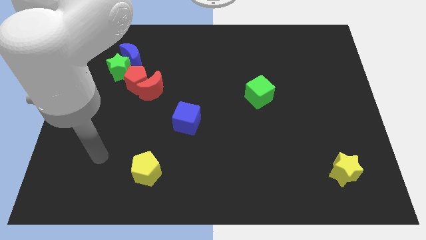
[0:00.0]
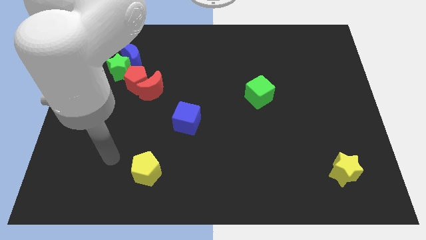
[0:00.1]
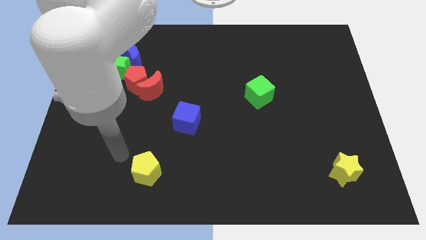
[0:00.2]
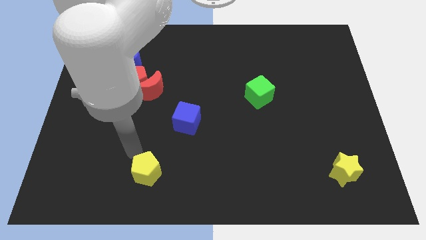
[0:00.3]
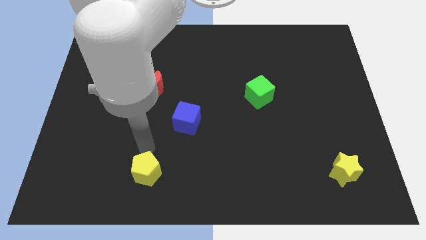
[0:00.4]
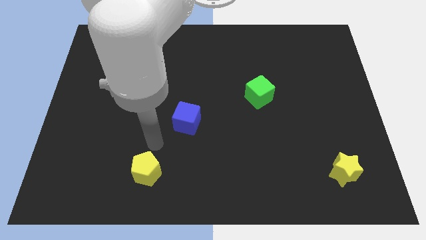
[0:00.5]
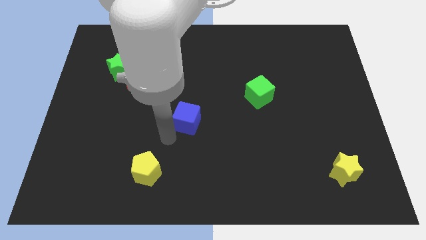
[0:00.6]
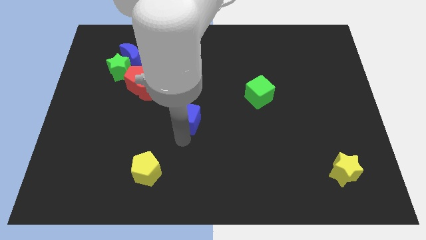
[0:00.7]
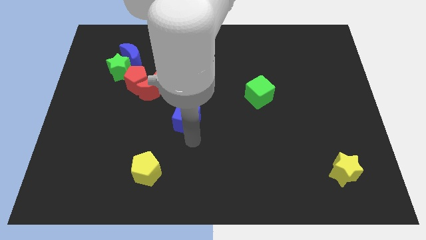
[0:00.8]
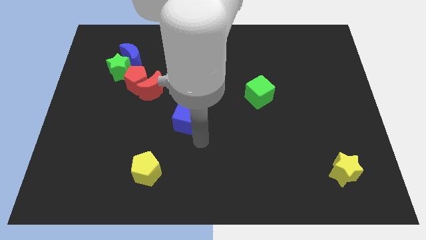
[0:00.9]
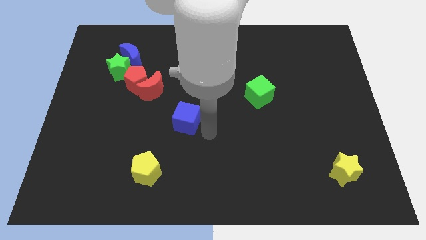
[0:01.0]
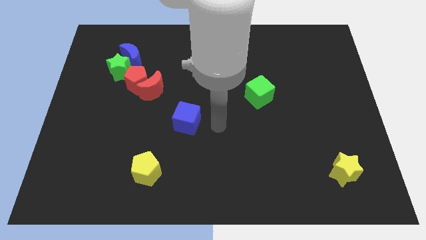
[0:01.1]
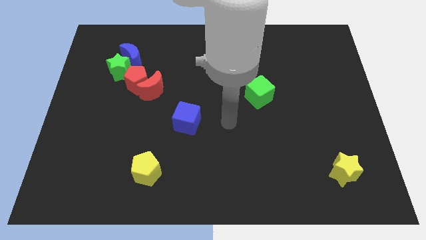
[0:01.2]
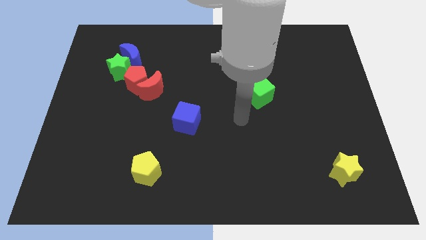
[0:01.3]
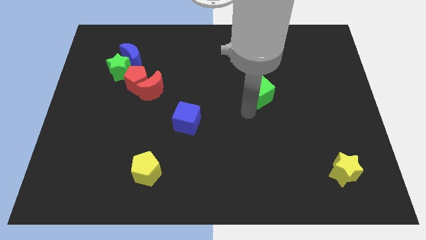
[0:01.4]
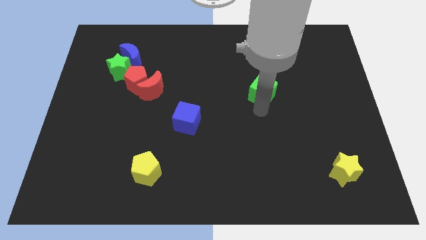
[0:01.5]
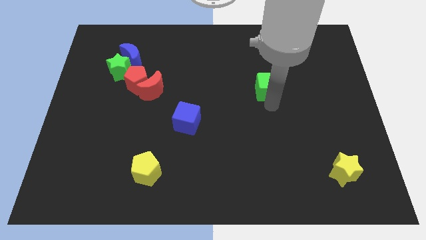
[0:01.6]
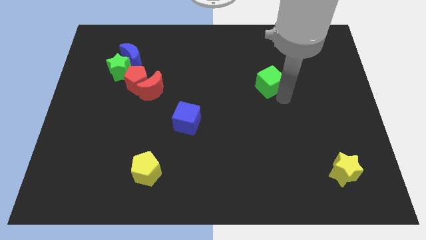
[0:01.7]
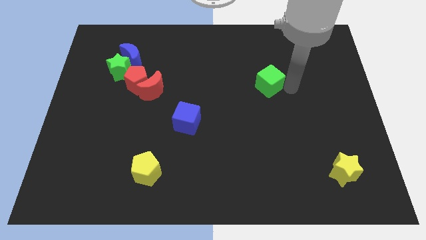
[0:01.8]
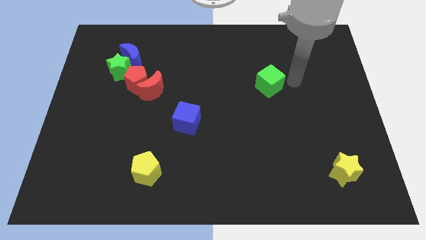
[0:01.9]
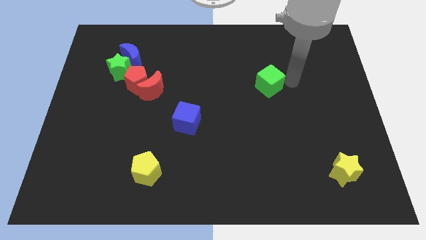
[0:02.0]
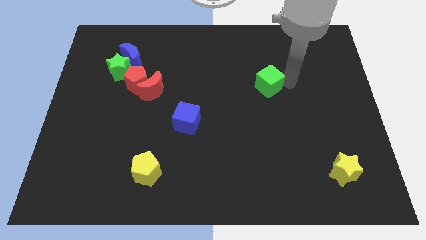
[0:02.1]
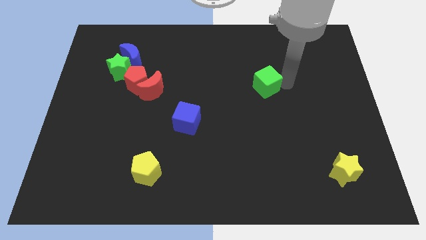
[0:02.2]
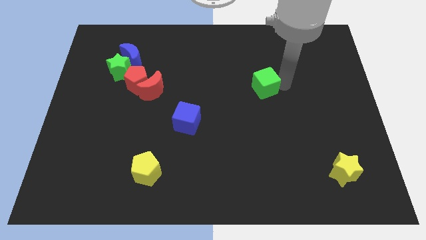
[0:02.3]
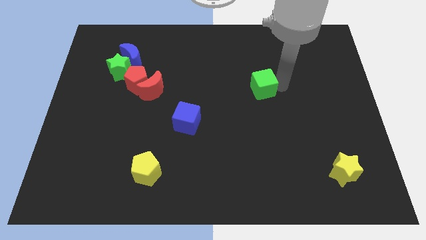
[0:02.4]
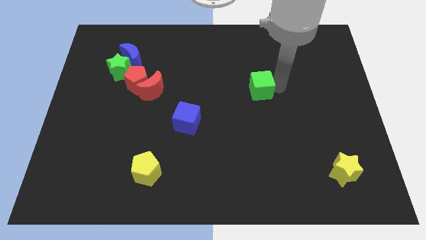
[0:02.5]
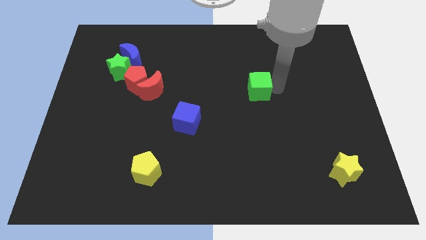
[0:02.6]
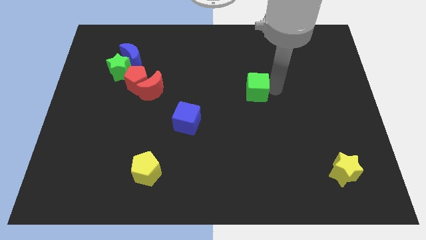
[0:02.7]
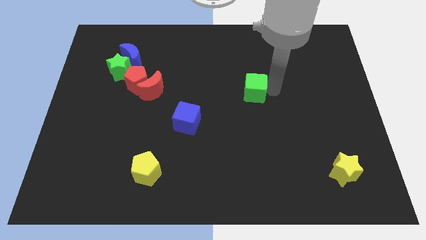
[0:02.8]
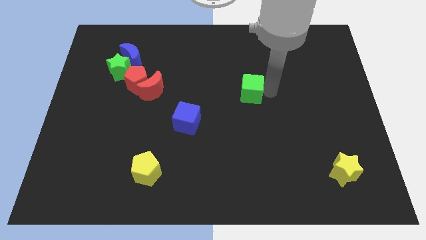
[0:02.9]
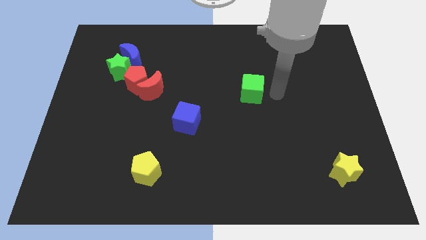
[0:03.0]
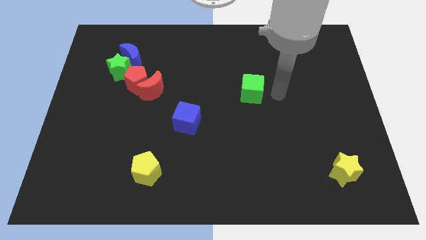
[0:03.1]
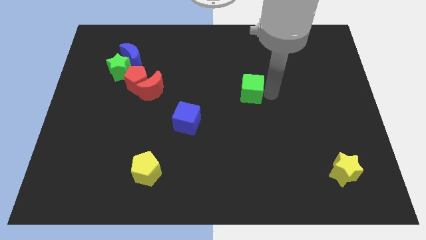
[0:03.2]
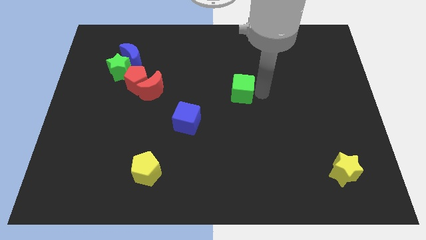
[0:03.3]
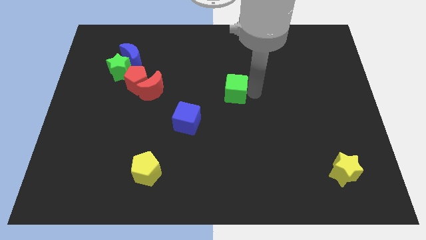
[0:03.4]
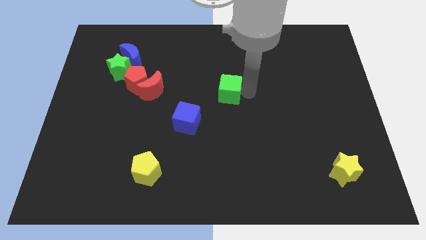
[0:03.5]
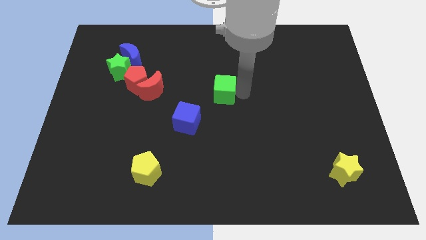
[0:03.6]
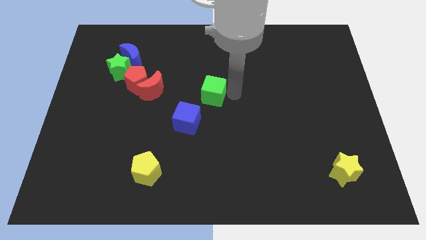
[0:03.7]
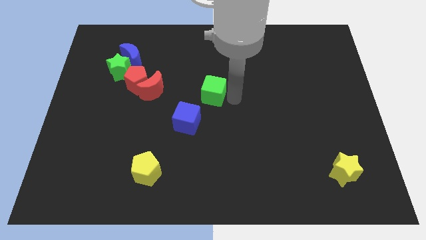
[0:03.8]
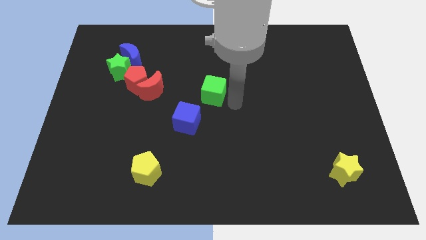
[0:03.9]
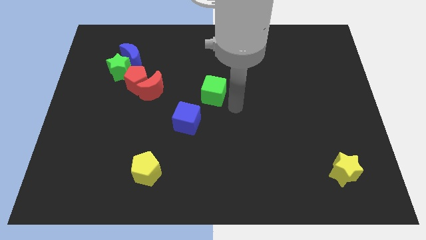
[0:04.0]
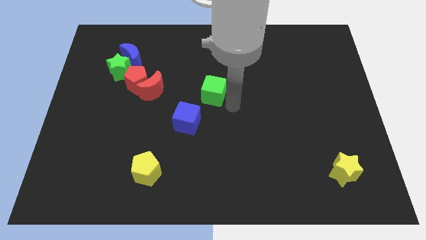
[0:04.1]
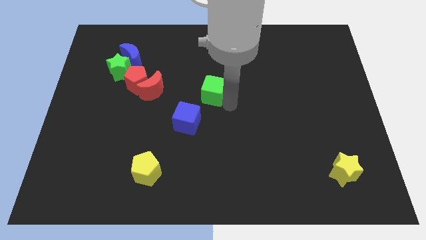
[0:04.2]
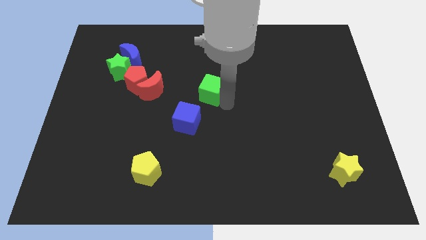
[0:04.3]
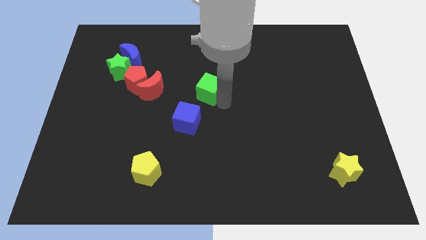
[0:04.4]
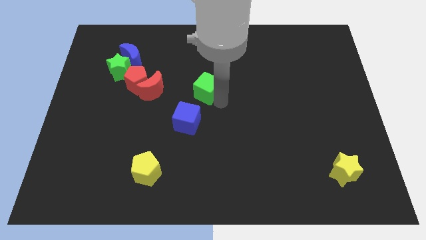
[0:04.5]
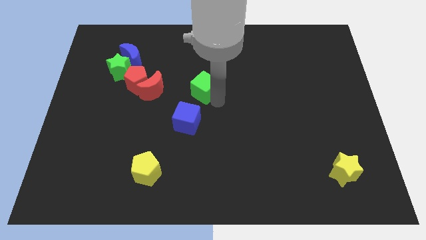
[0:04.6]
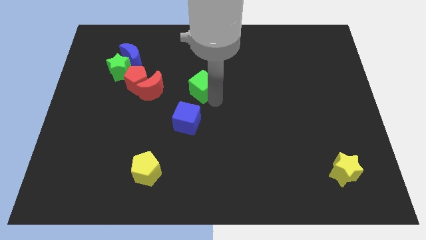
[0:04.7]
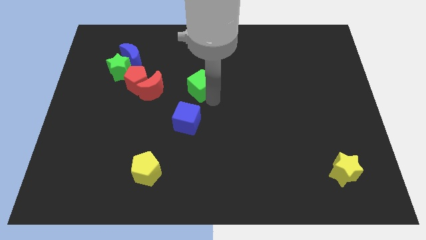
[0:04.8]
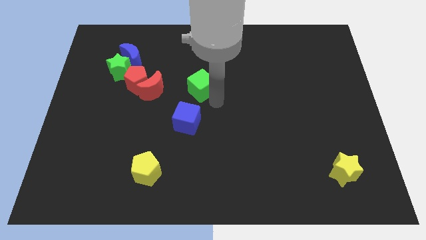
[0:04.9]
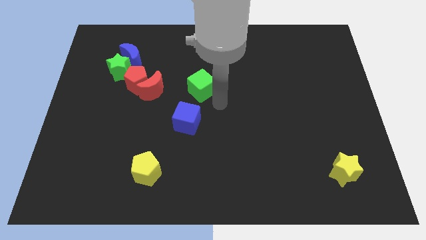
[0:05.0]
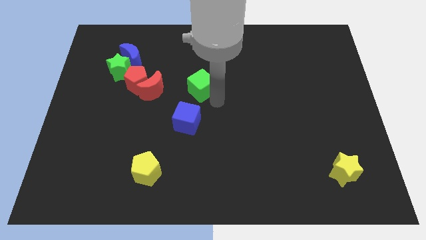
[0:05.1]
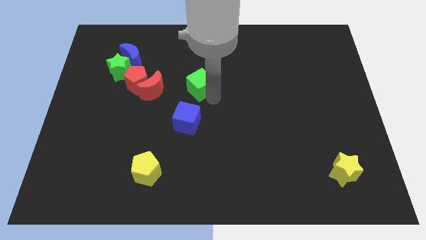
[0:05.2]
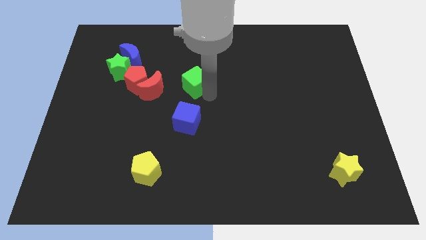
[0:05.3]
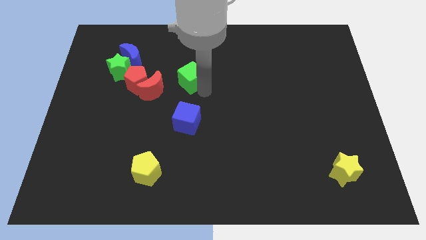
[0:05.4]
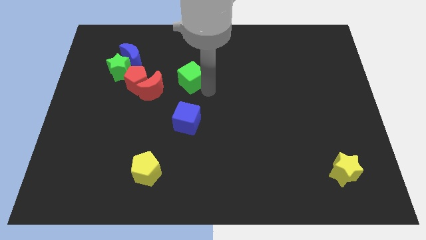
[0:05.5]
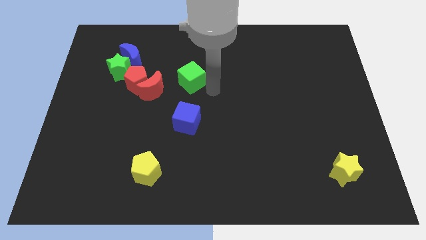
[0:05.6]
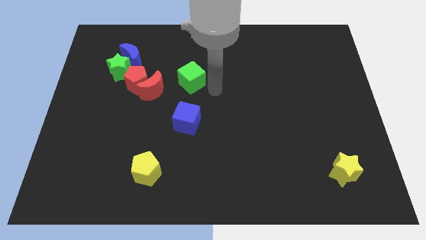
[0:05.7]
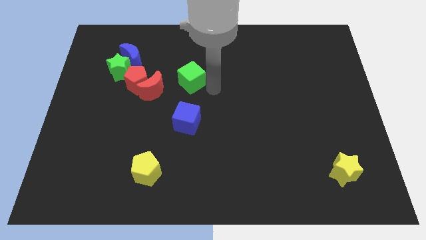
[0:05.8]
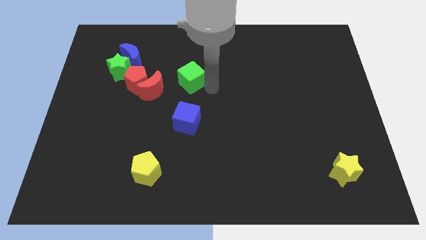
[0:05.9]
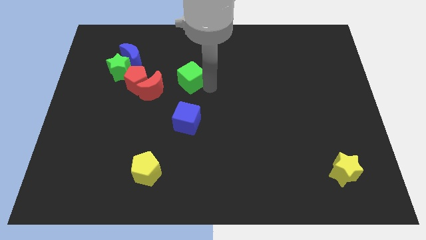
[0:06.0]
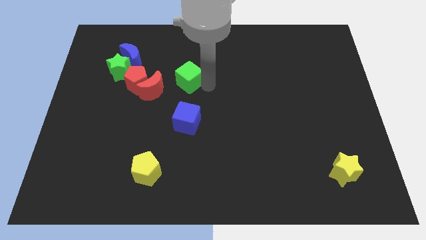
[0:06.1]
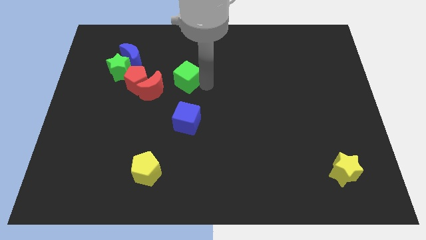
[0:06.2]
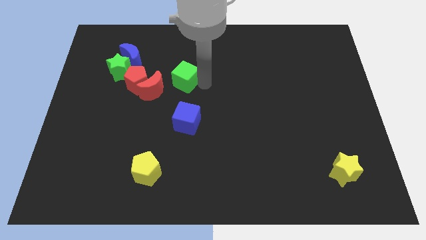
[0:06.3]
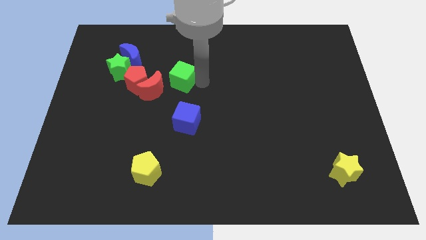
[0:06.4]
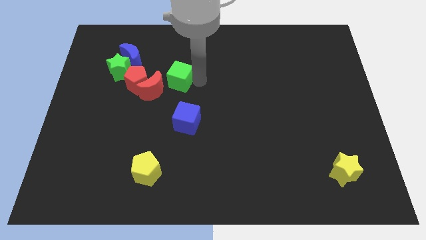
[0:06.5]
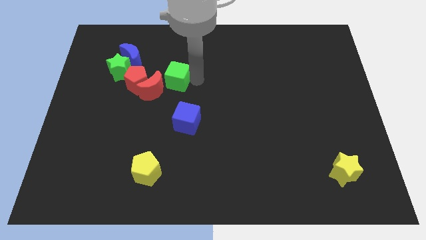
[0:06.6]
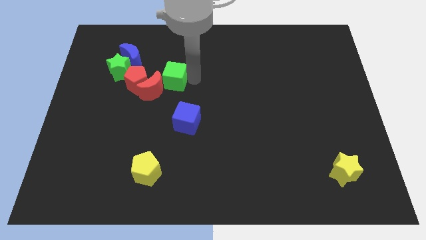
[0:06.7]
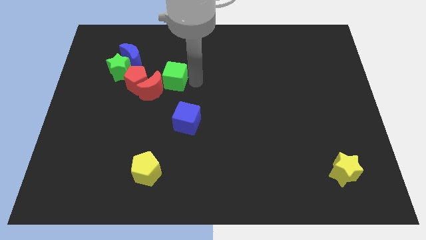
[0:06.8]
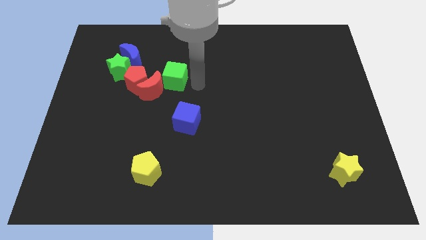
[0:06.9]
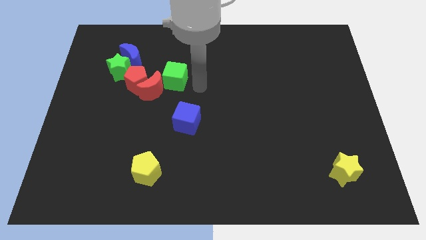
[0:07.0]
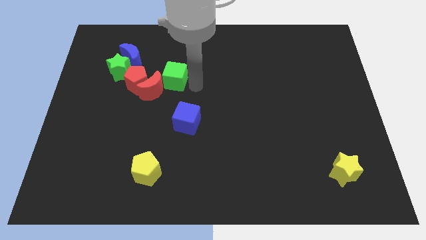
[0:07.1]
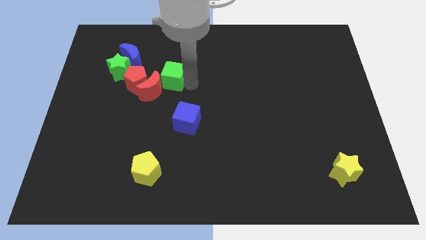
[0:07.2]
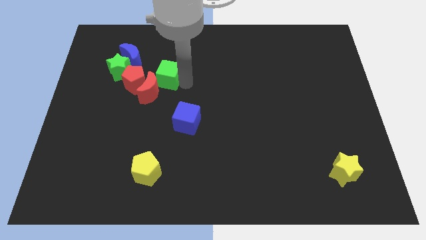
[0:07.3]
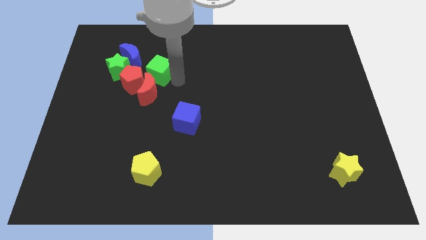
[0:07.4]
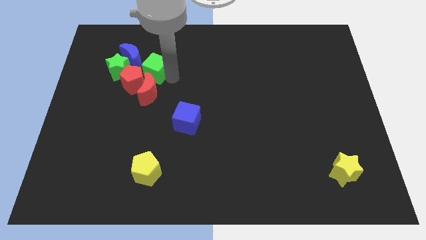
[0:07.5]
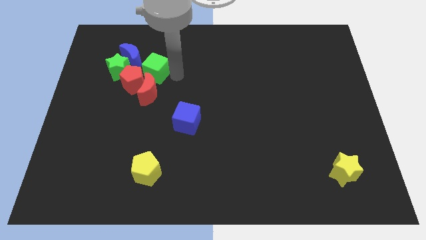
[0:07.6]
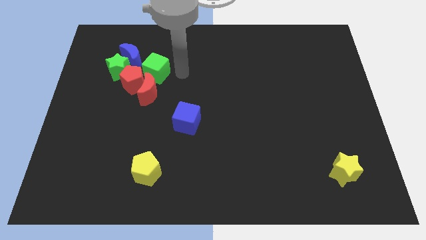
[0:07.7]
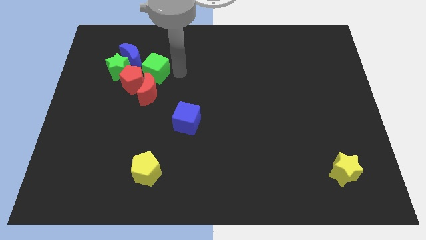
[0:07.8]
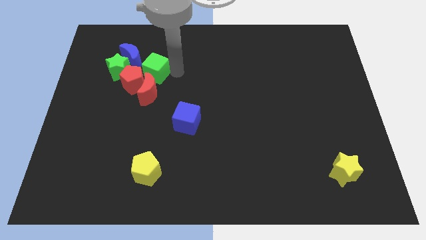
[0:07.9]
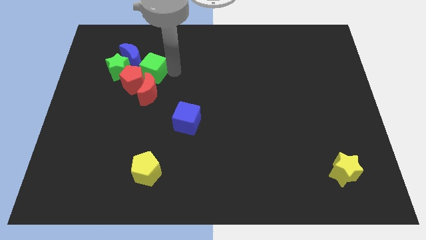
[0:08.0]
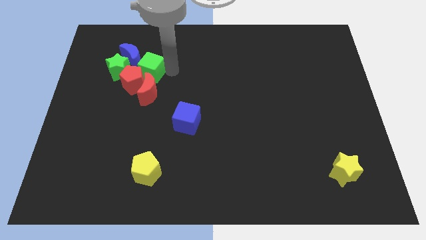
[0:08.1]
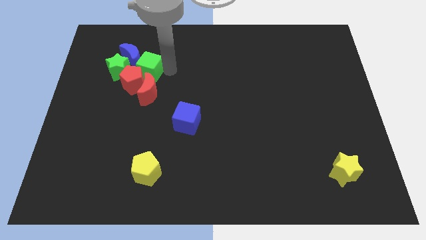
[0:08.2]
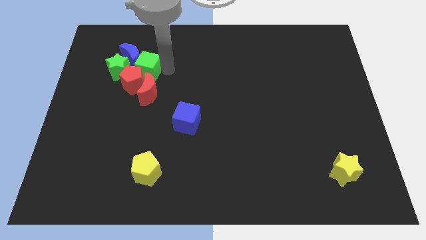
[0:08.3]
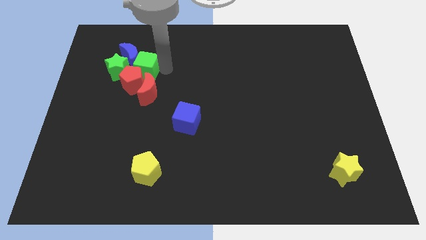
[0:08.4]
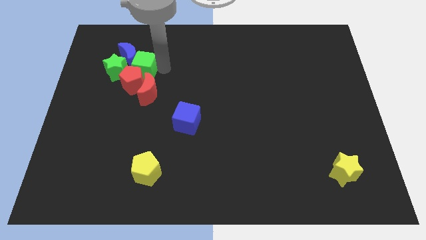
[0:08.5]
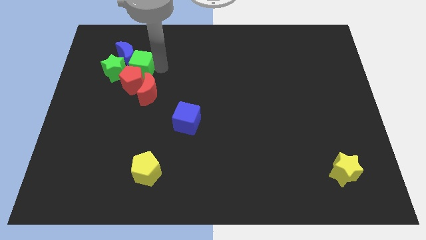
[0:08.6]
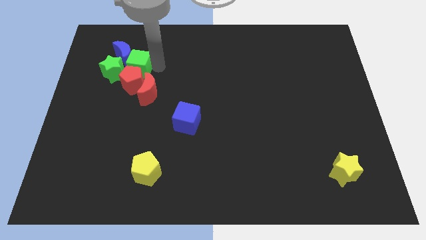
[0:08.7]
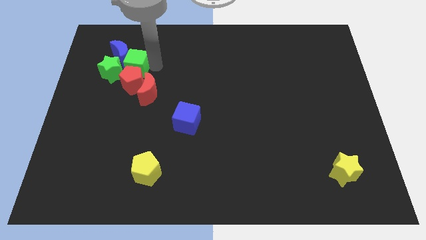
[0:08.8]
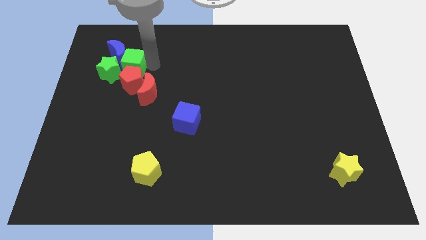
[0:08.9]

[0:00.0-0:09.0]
move the green cube close to the green star
